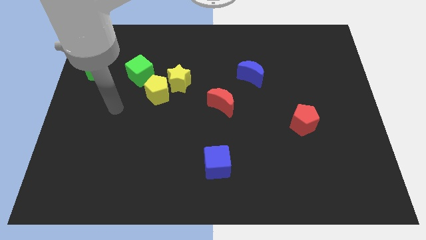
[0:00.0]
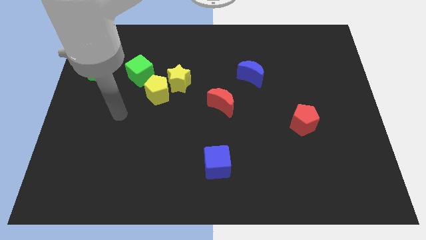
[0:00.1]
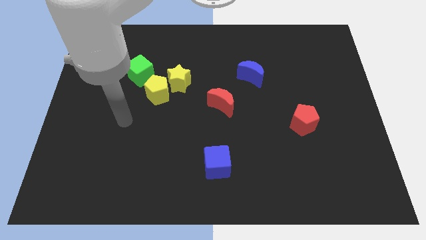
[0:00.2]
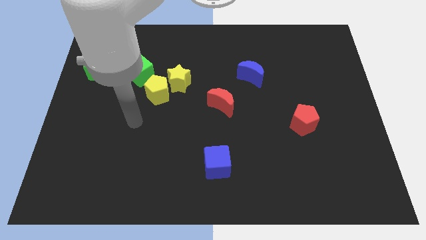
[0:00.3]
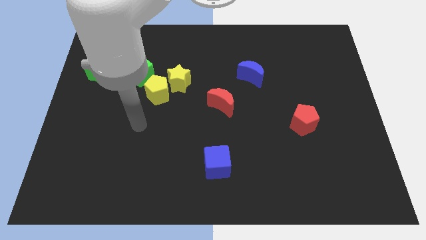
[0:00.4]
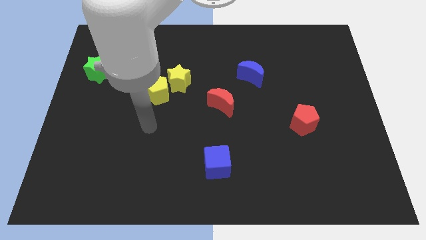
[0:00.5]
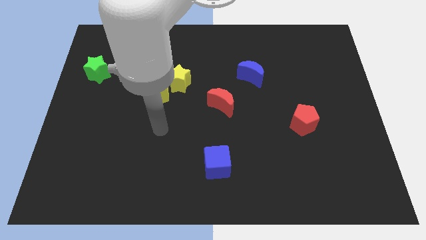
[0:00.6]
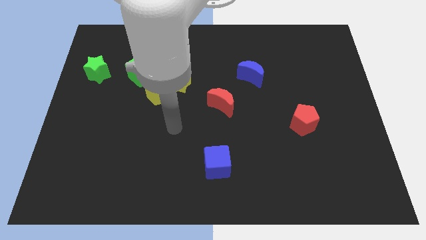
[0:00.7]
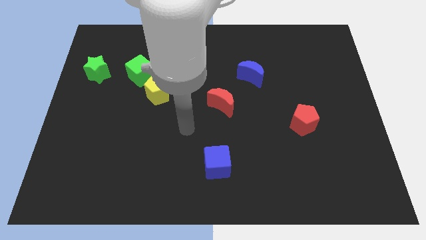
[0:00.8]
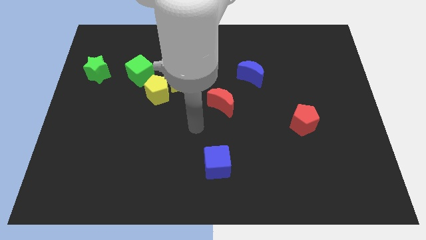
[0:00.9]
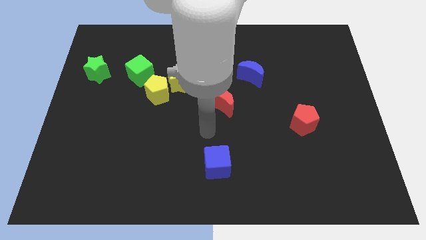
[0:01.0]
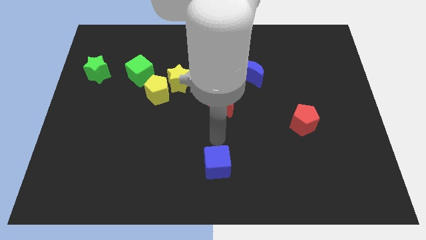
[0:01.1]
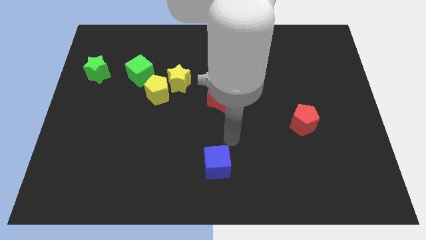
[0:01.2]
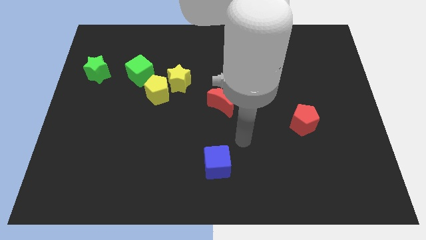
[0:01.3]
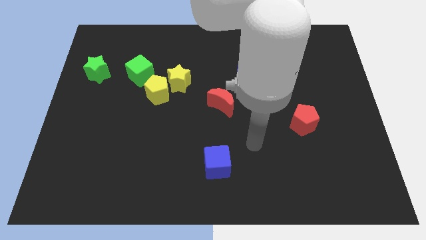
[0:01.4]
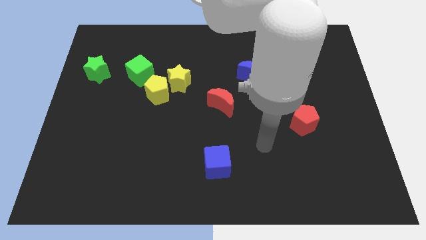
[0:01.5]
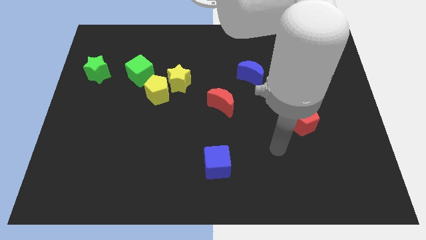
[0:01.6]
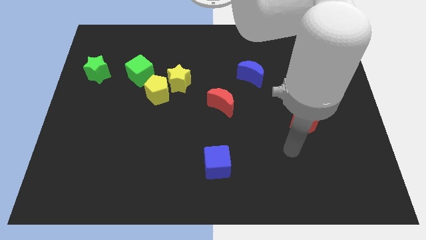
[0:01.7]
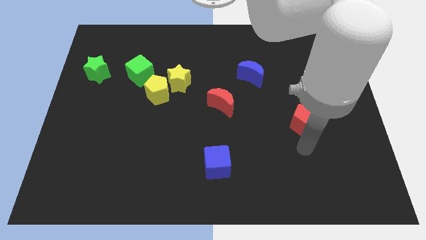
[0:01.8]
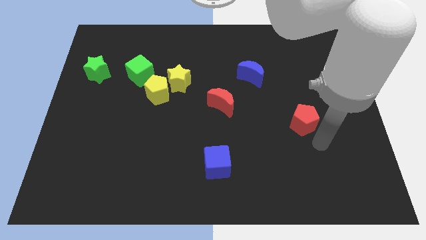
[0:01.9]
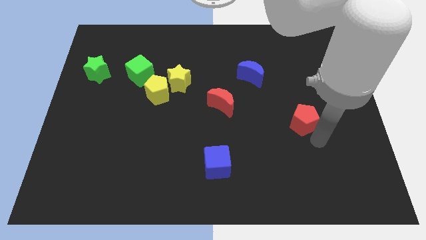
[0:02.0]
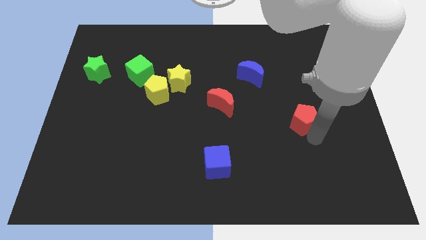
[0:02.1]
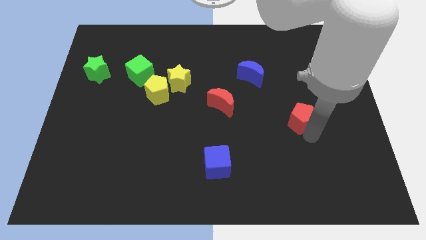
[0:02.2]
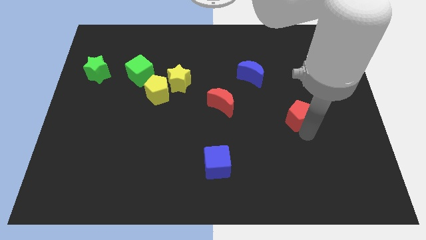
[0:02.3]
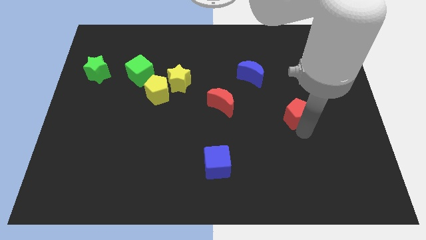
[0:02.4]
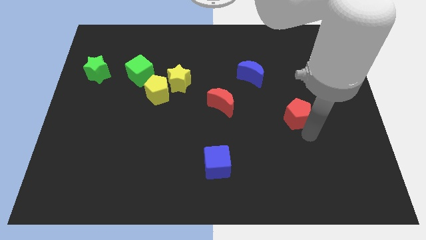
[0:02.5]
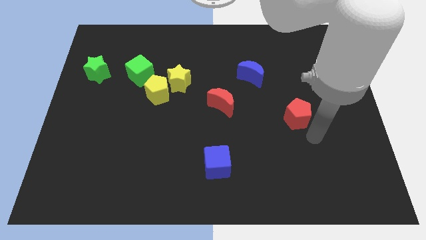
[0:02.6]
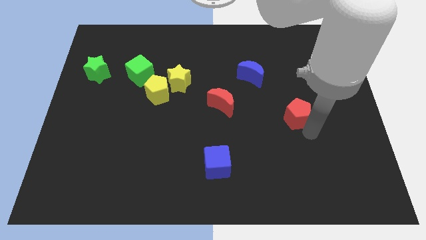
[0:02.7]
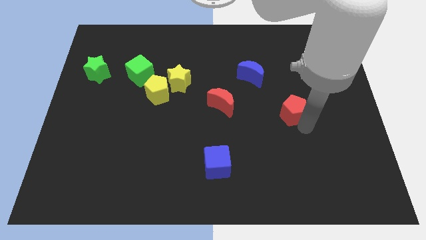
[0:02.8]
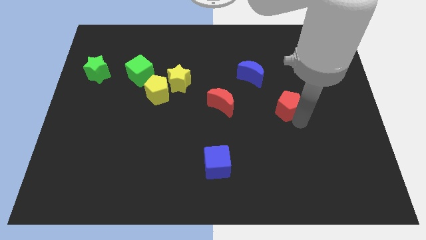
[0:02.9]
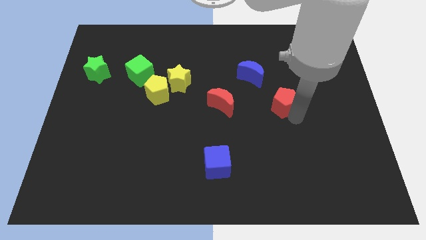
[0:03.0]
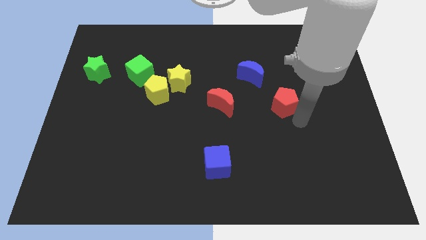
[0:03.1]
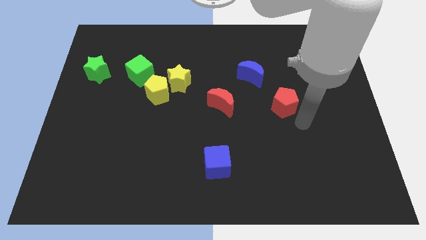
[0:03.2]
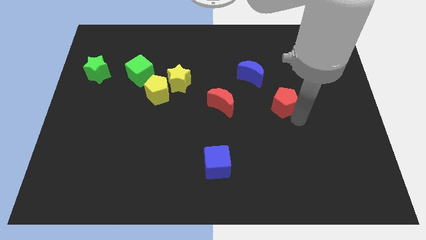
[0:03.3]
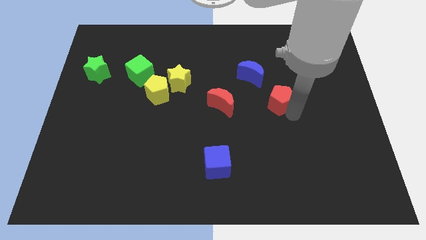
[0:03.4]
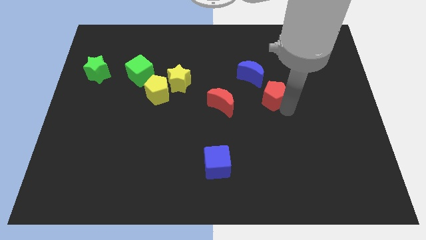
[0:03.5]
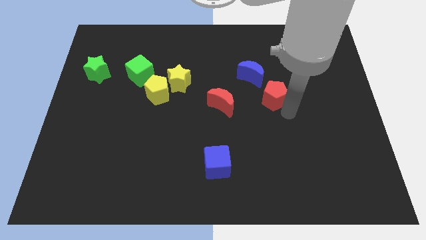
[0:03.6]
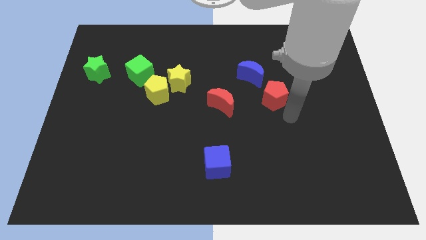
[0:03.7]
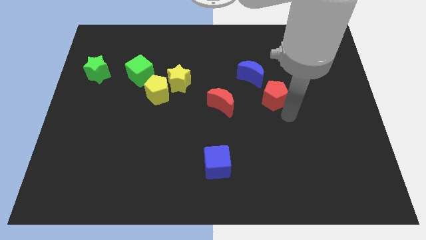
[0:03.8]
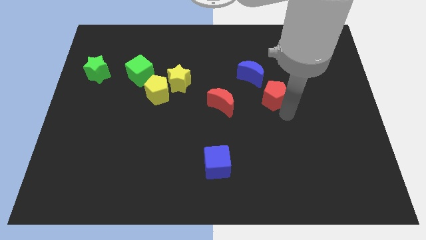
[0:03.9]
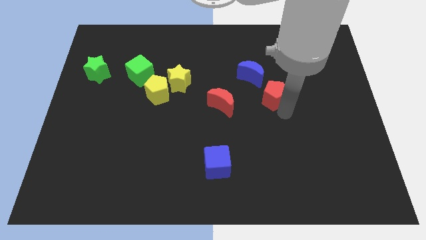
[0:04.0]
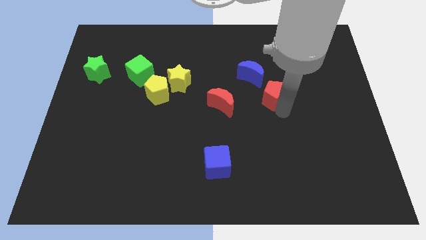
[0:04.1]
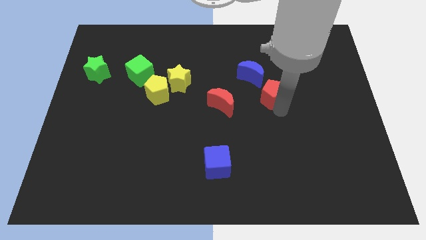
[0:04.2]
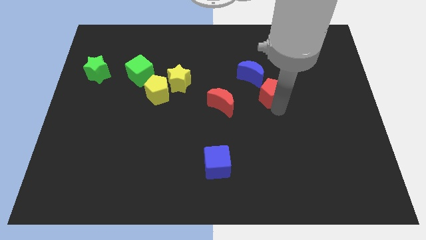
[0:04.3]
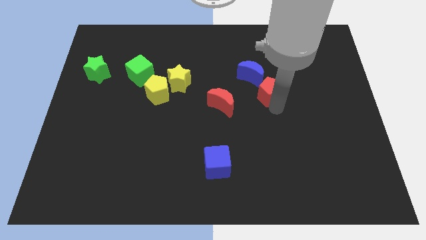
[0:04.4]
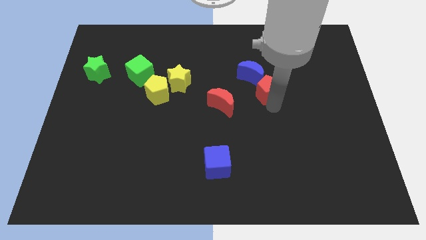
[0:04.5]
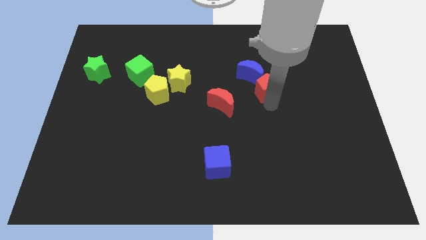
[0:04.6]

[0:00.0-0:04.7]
slide the red pentagon to the blue moon

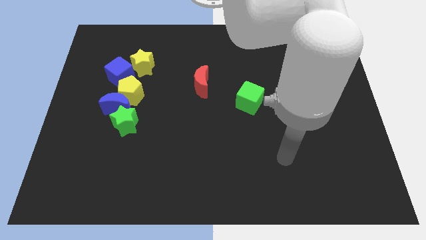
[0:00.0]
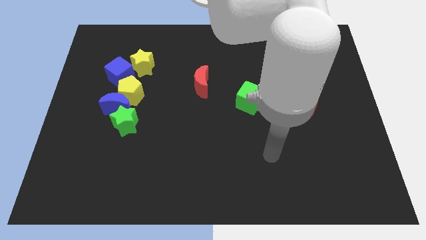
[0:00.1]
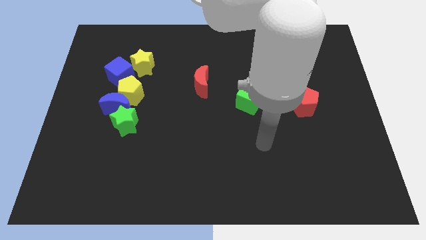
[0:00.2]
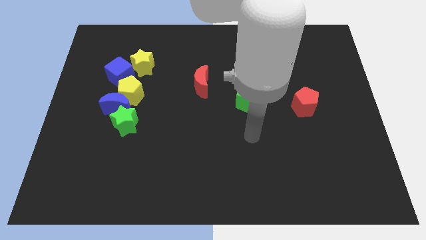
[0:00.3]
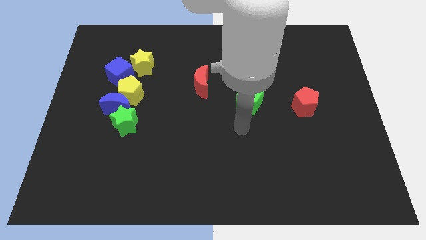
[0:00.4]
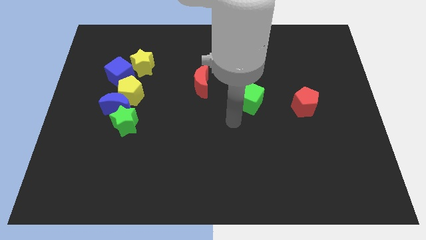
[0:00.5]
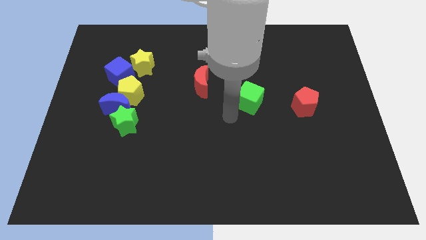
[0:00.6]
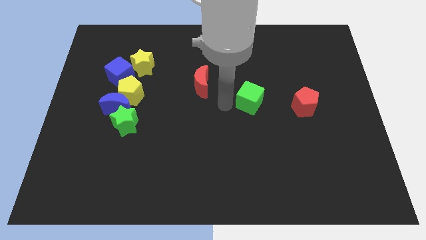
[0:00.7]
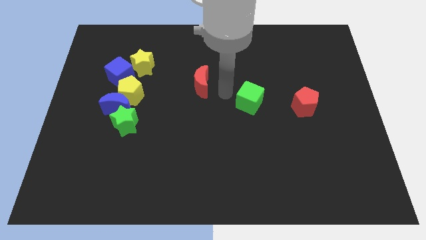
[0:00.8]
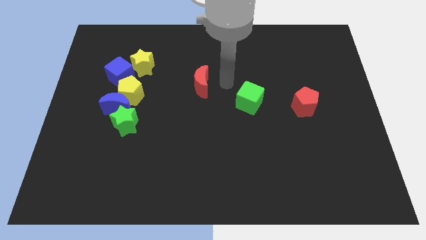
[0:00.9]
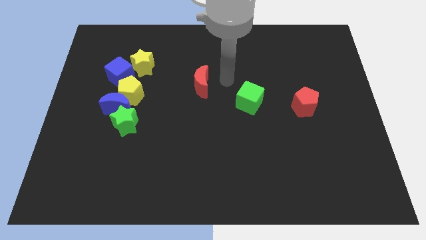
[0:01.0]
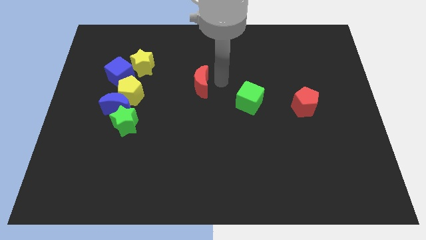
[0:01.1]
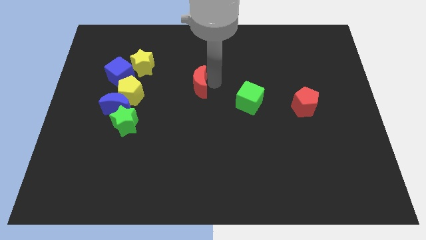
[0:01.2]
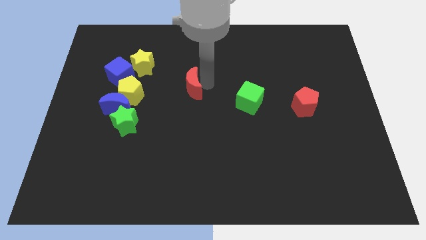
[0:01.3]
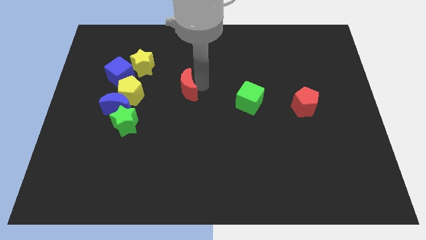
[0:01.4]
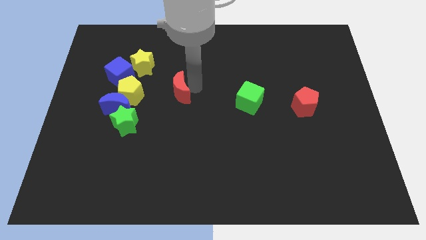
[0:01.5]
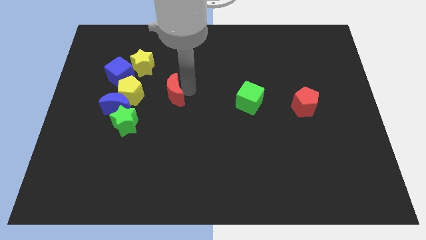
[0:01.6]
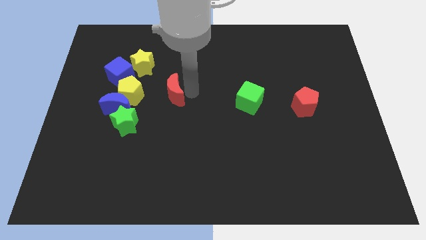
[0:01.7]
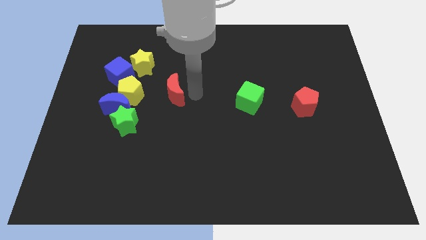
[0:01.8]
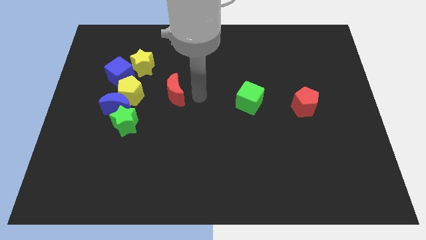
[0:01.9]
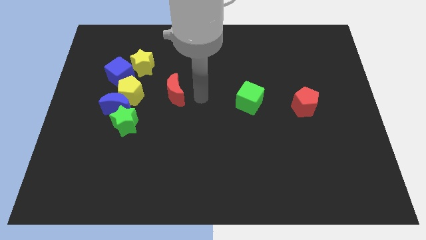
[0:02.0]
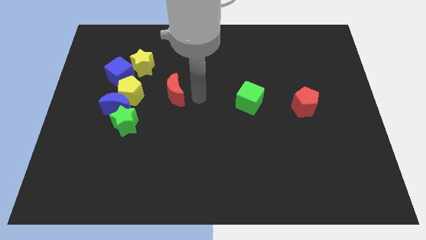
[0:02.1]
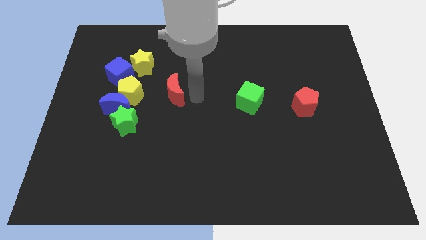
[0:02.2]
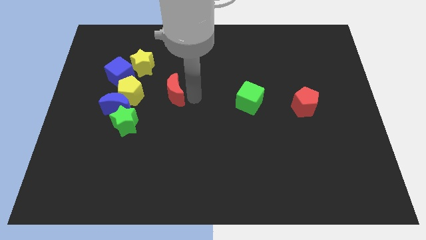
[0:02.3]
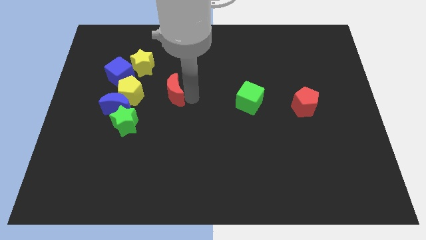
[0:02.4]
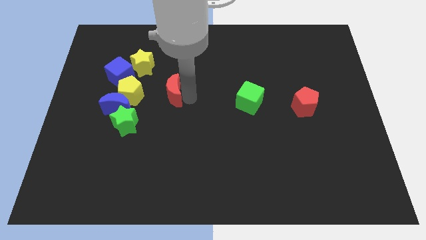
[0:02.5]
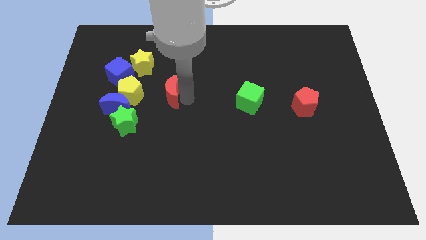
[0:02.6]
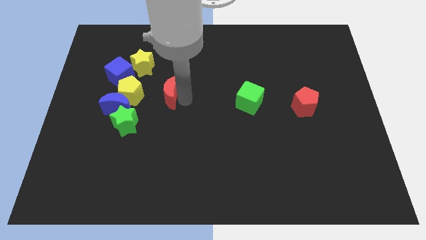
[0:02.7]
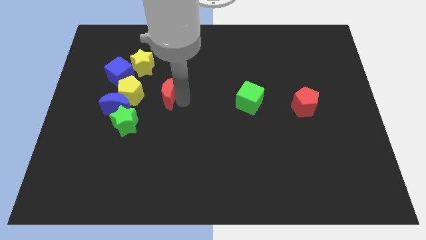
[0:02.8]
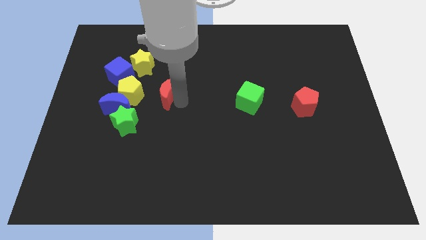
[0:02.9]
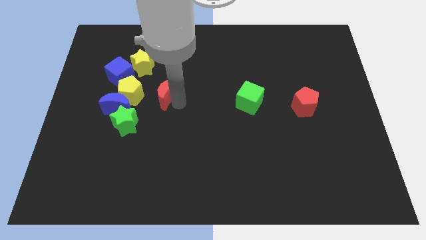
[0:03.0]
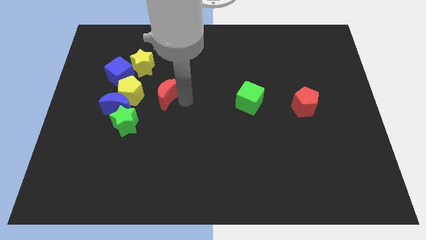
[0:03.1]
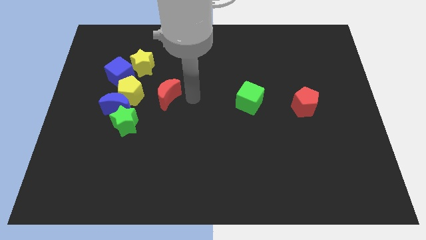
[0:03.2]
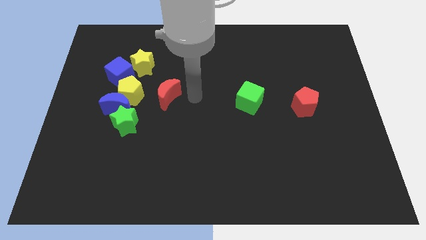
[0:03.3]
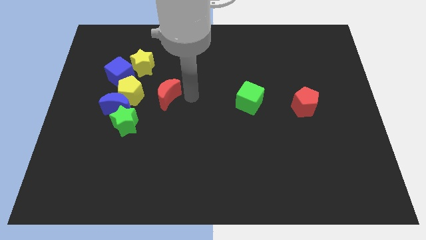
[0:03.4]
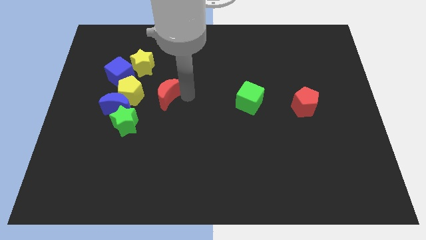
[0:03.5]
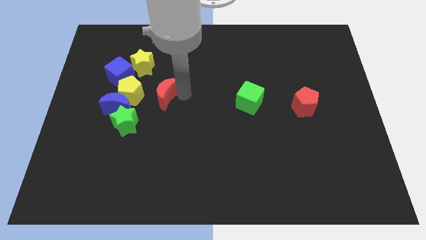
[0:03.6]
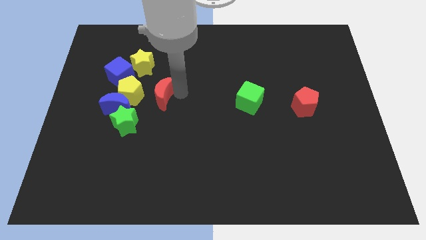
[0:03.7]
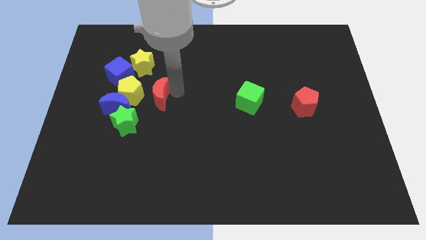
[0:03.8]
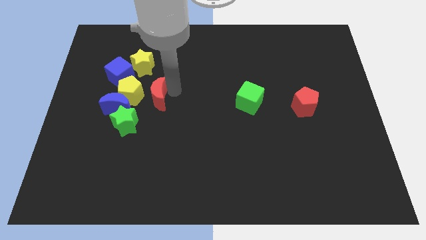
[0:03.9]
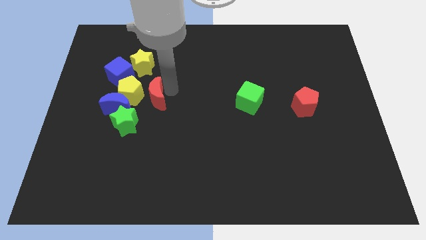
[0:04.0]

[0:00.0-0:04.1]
move the red moon towards the yellow pentagon
